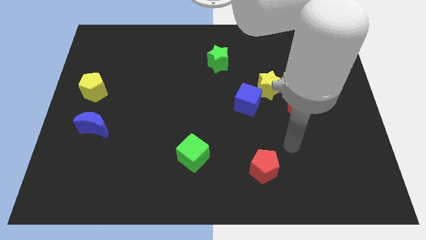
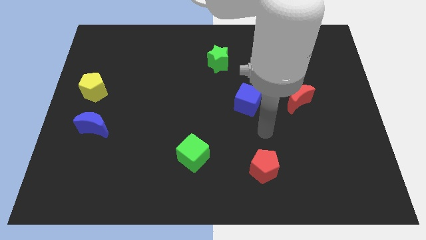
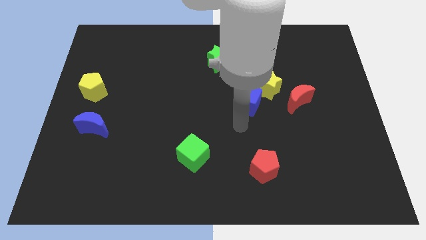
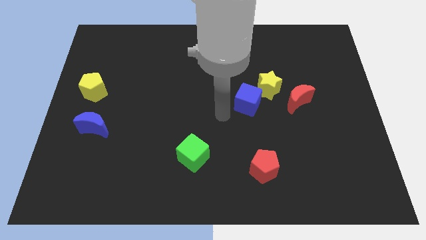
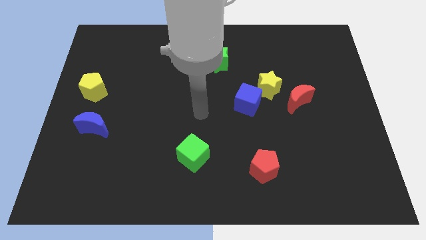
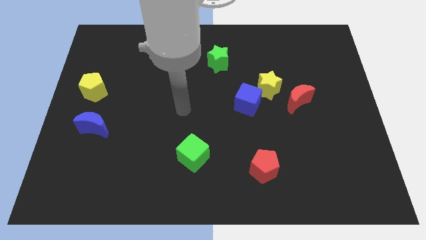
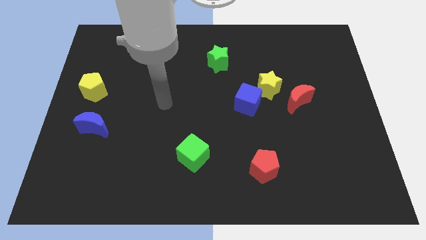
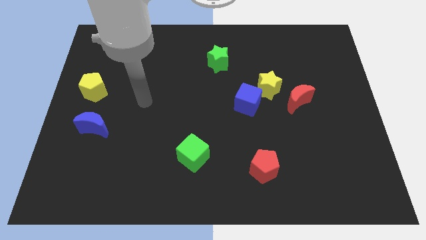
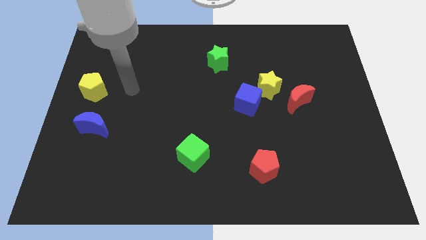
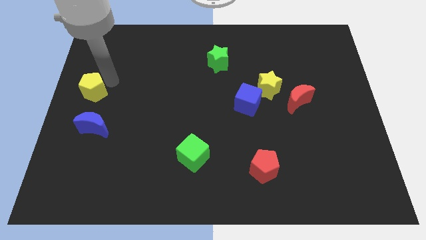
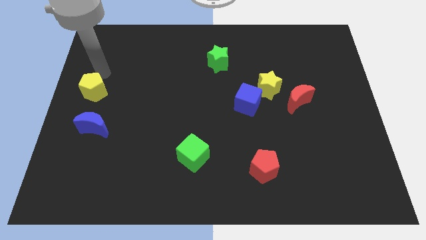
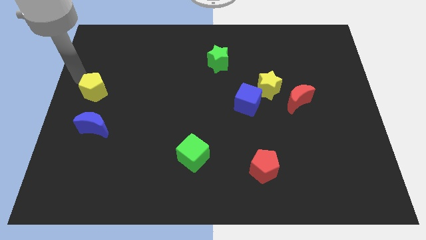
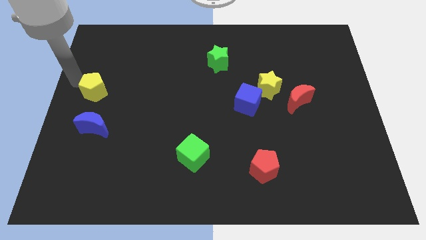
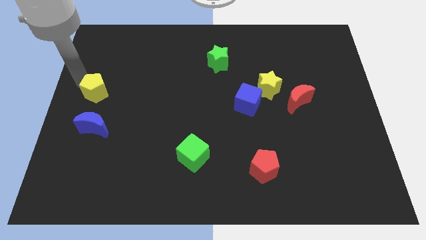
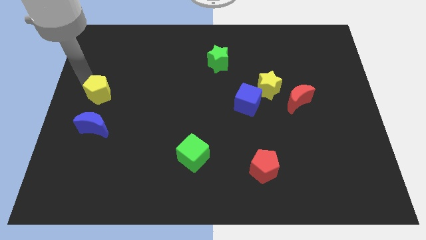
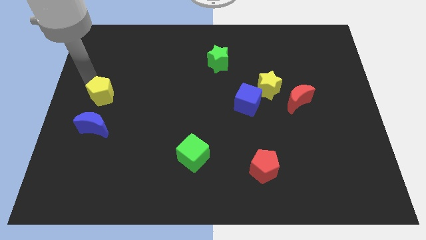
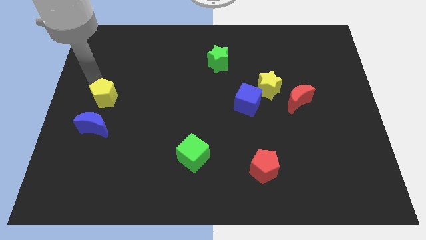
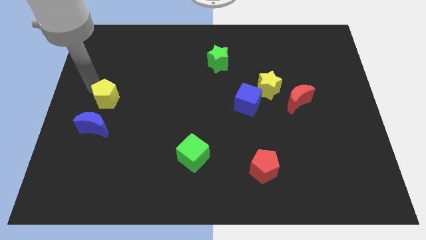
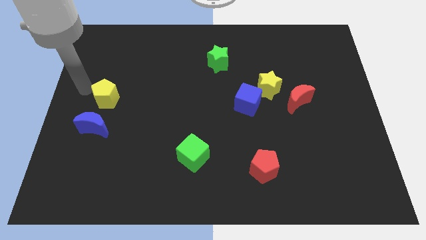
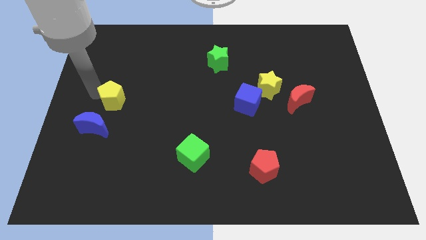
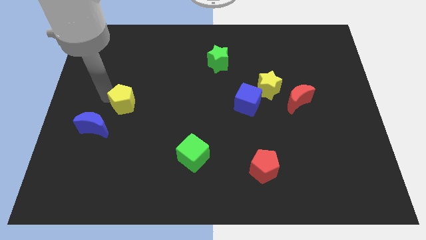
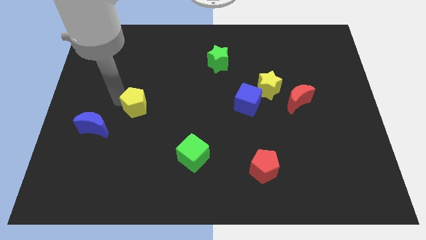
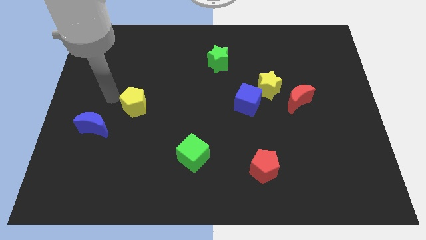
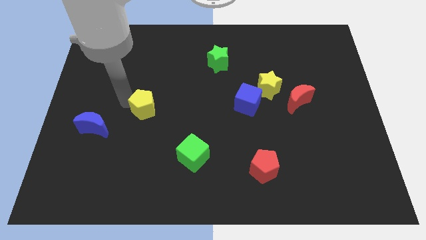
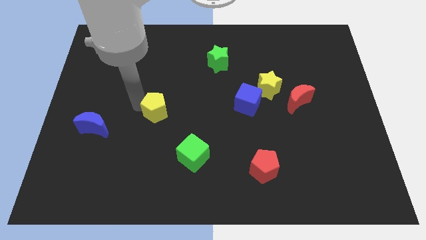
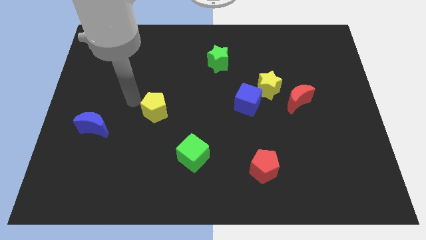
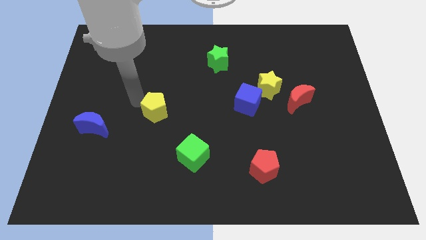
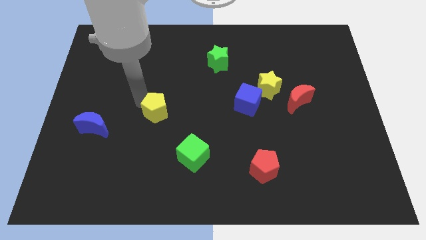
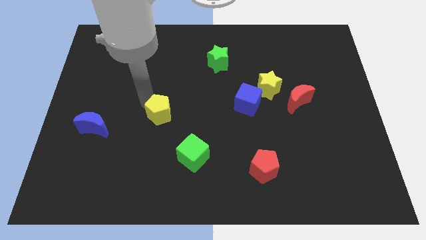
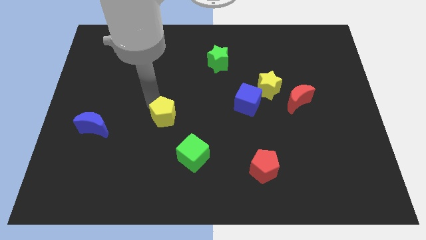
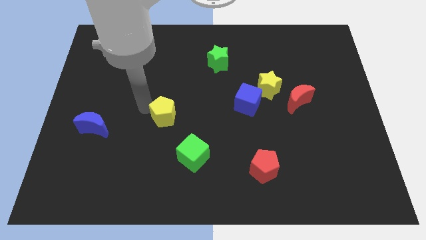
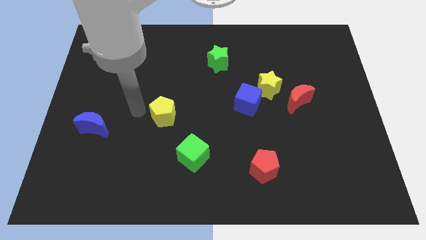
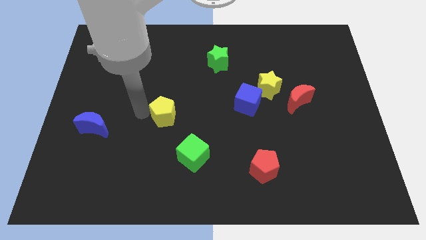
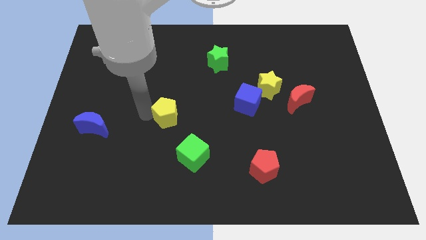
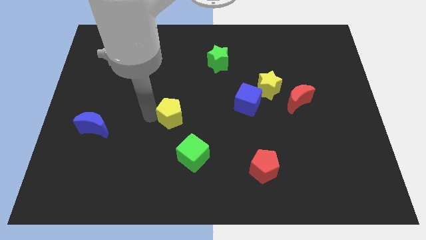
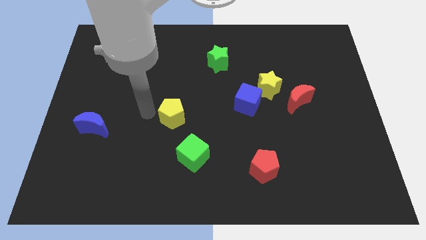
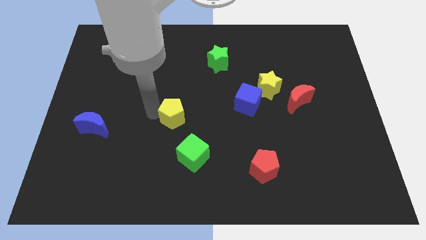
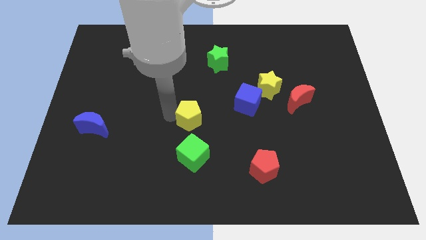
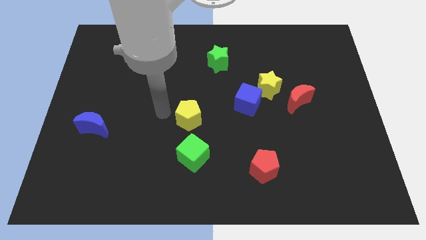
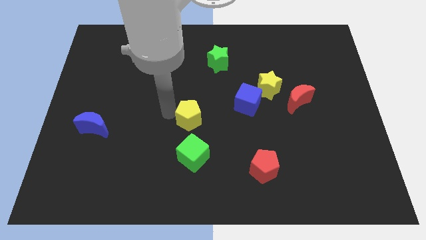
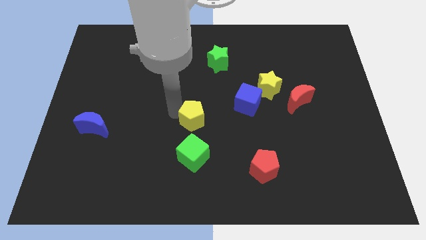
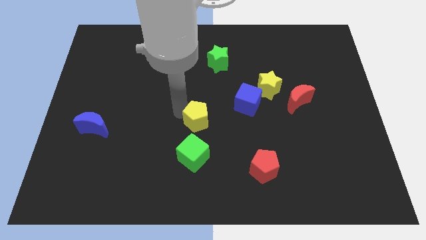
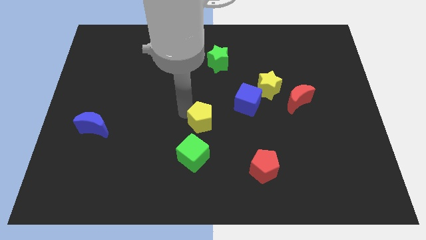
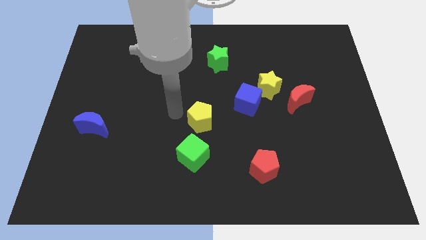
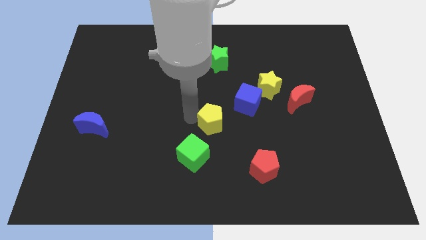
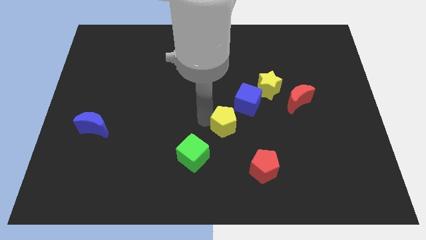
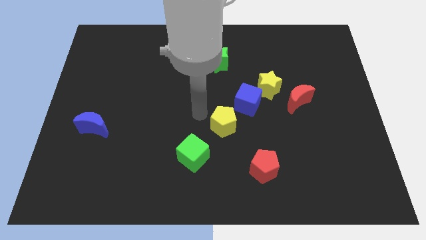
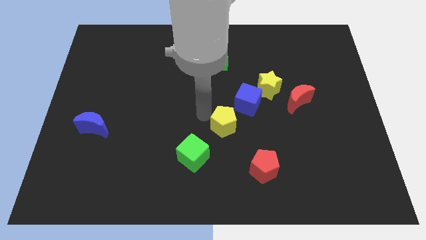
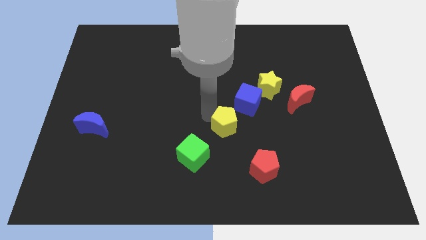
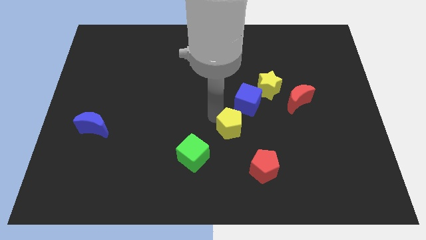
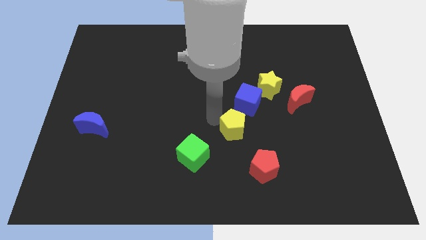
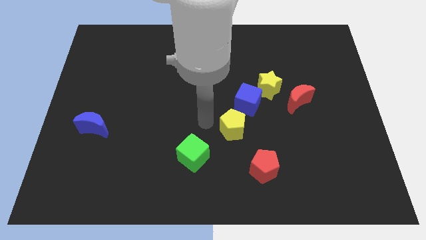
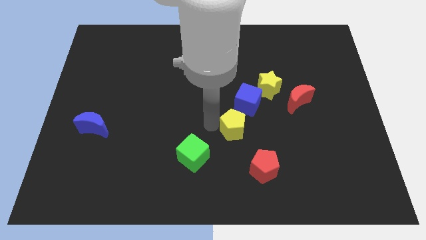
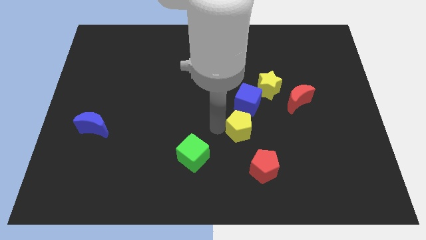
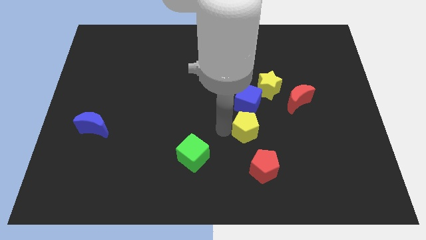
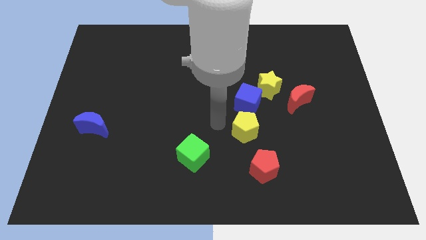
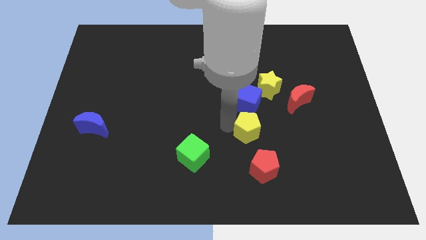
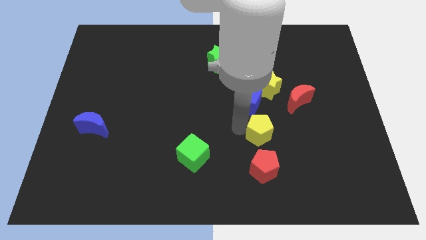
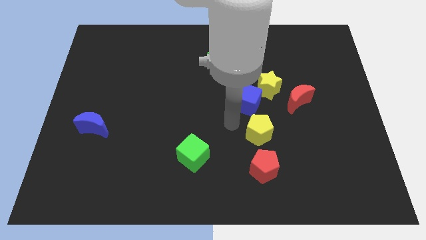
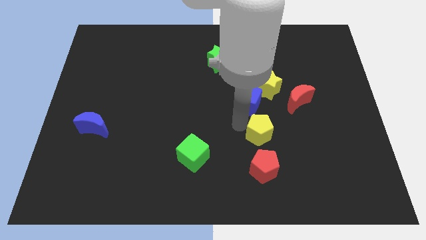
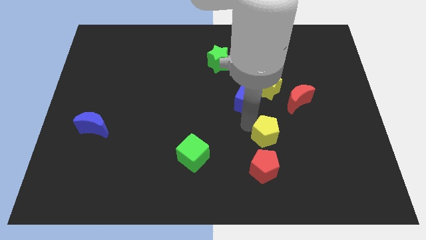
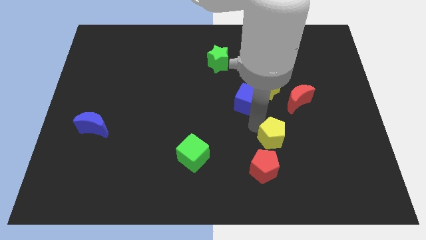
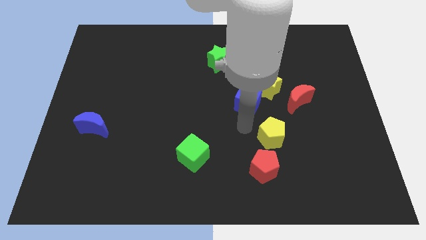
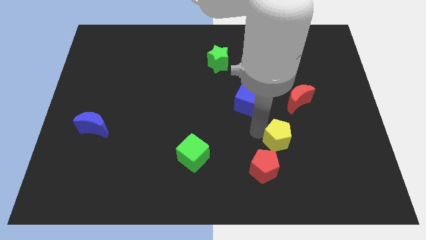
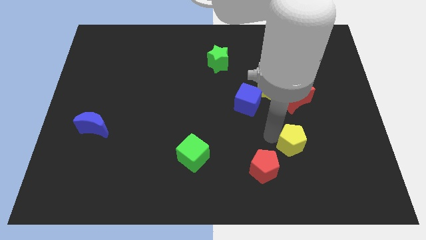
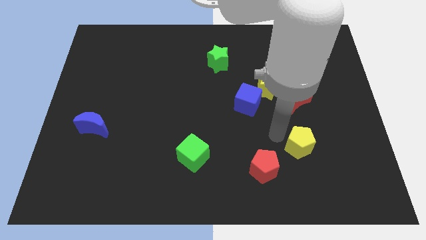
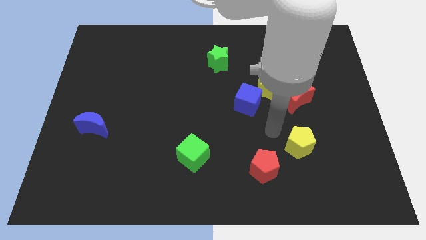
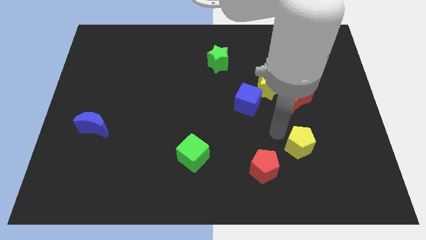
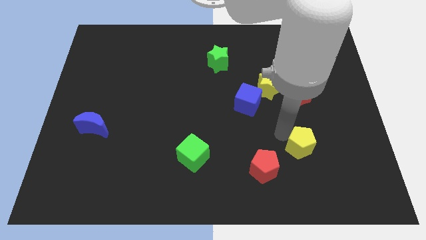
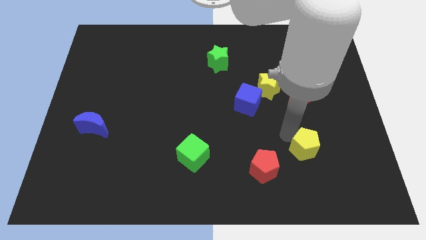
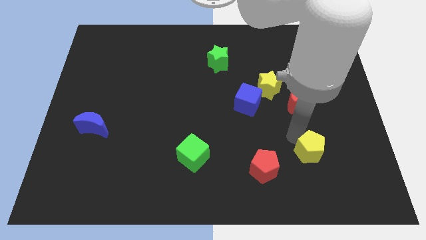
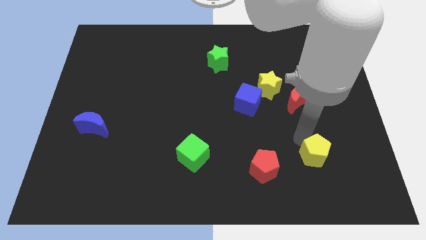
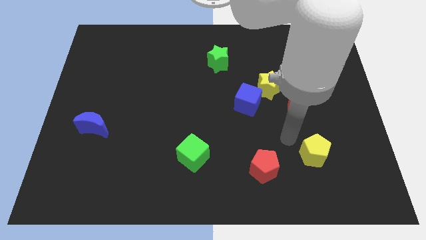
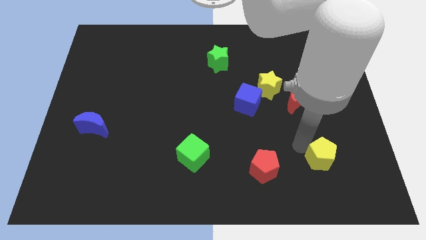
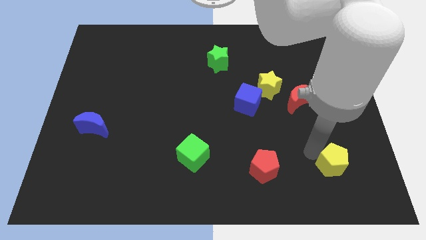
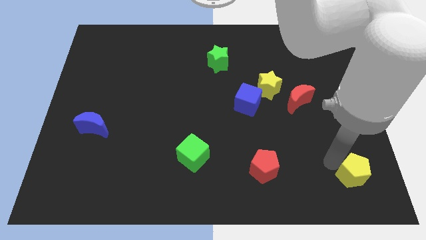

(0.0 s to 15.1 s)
move the yellow pentagon to the bottom right of the board
